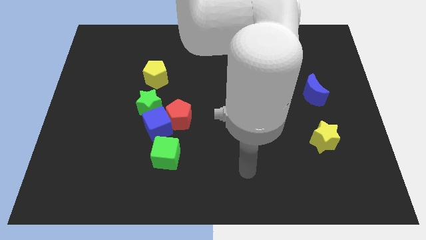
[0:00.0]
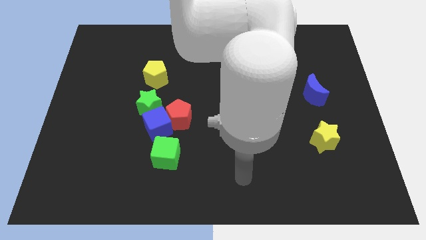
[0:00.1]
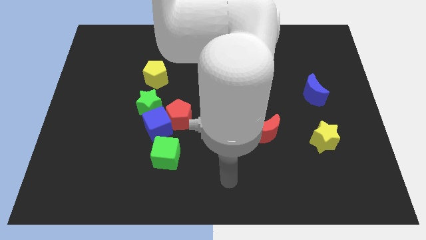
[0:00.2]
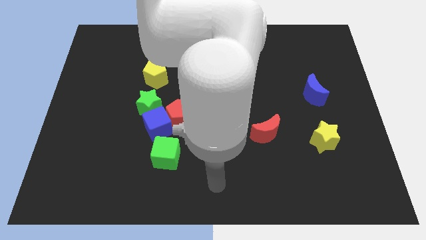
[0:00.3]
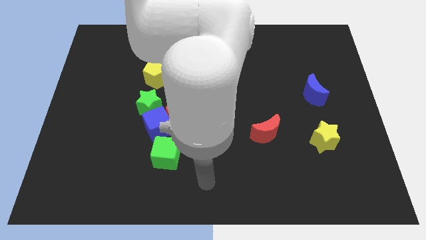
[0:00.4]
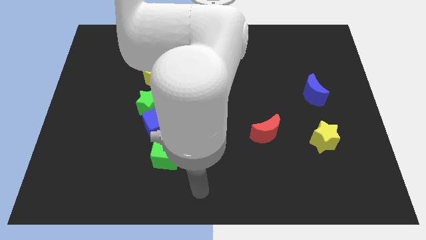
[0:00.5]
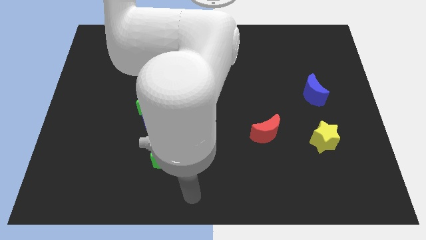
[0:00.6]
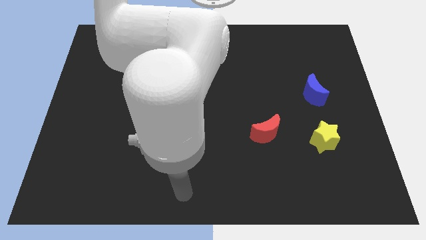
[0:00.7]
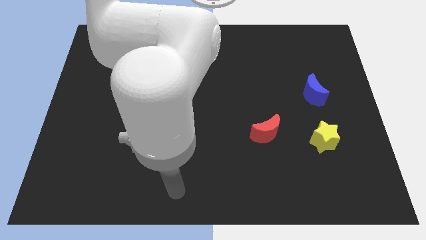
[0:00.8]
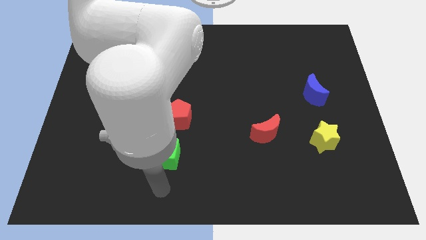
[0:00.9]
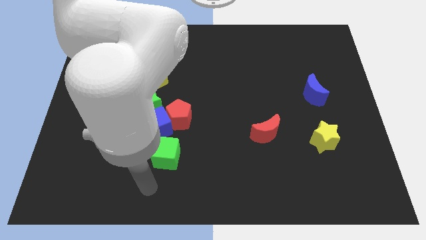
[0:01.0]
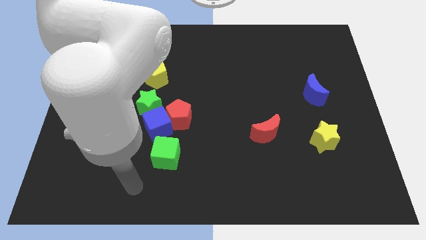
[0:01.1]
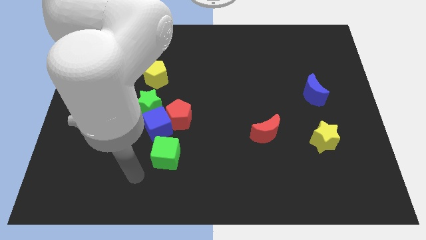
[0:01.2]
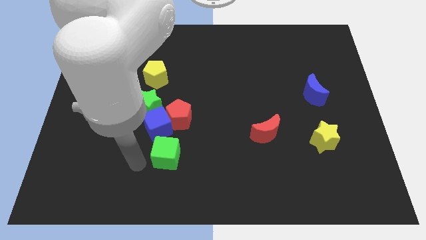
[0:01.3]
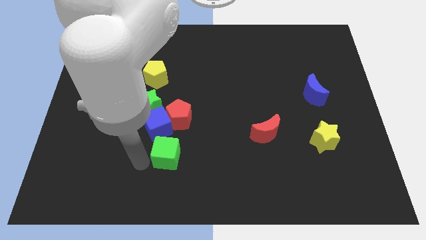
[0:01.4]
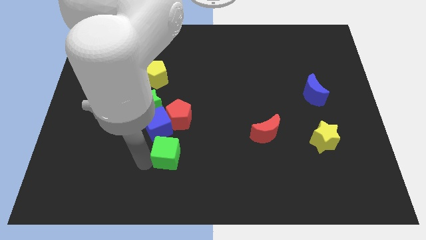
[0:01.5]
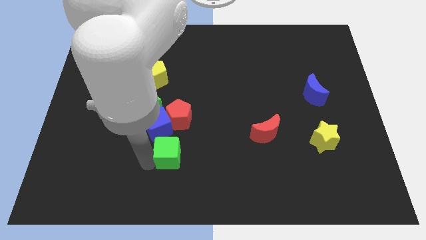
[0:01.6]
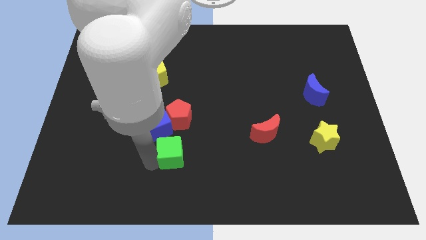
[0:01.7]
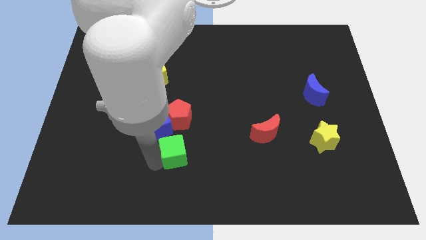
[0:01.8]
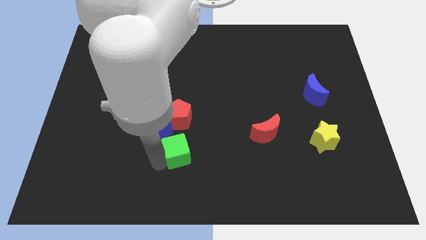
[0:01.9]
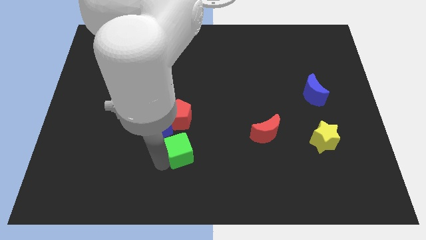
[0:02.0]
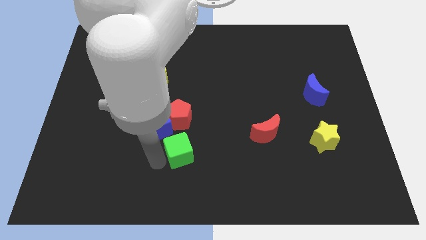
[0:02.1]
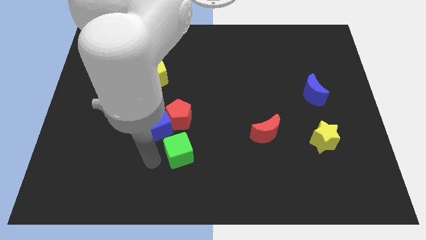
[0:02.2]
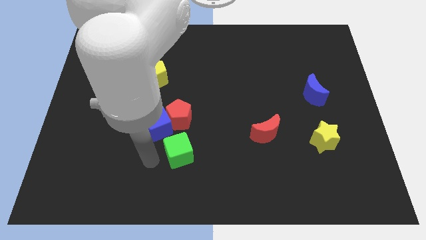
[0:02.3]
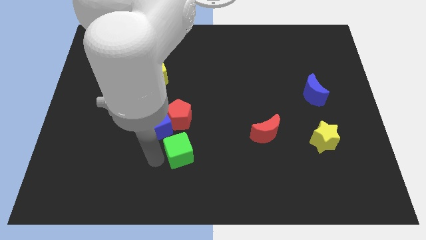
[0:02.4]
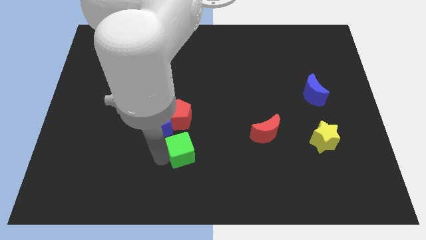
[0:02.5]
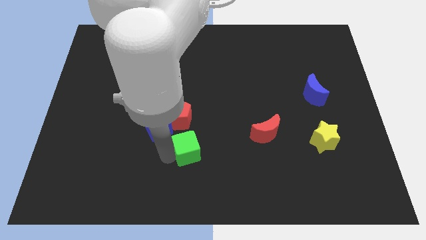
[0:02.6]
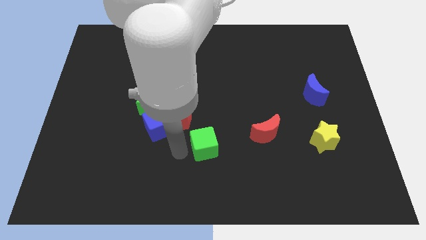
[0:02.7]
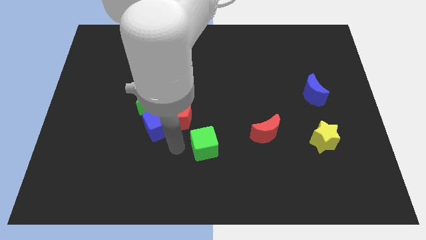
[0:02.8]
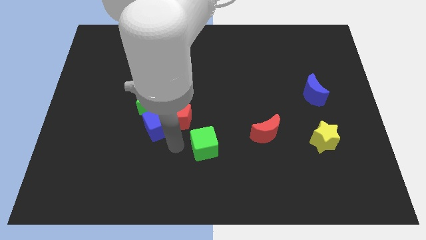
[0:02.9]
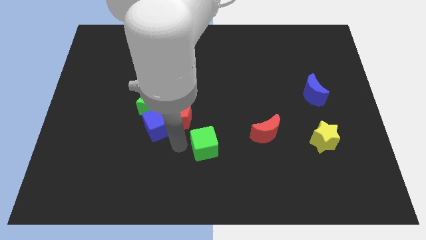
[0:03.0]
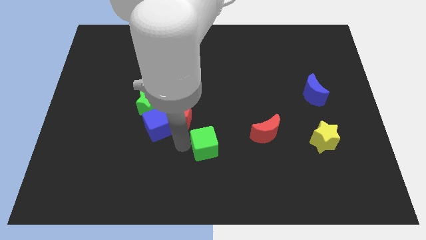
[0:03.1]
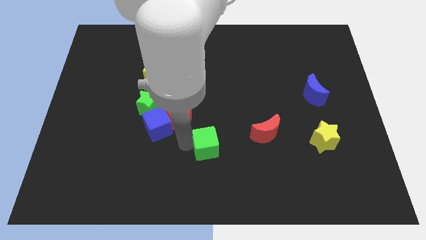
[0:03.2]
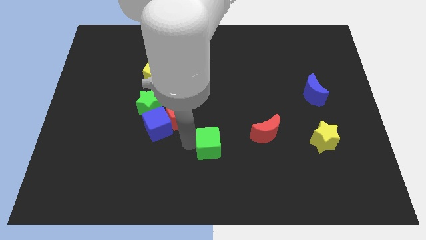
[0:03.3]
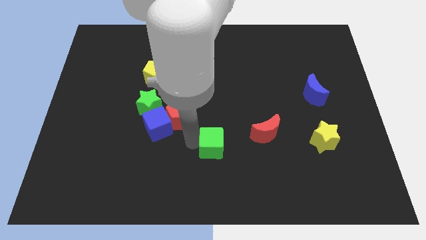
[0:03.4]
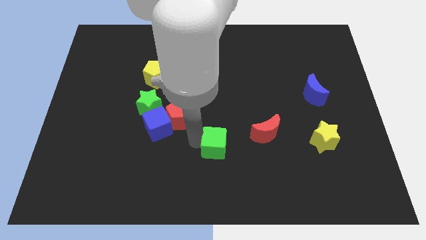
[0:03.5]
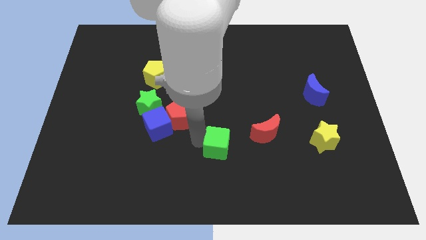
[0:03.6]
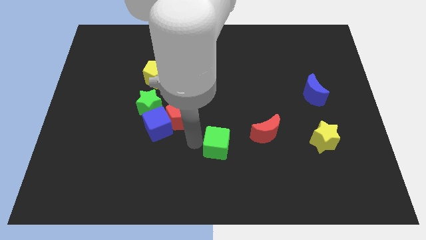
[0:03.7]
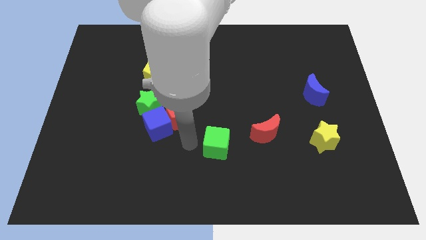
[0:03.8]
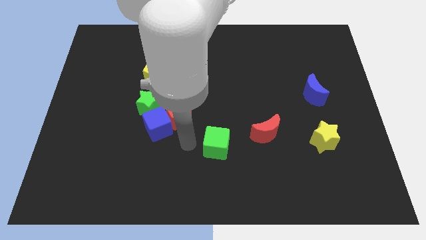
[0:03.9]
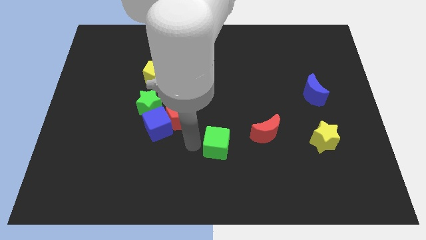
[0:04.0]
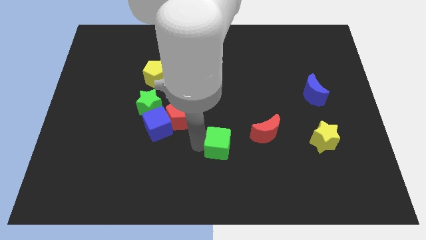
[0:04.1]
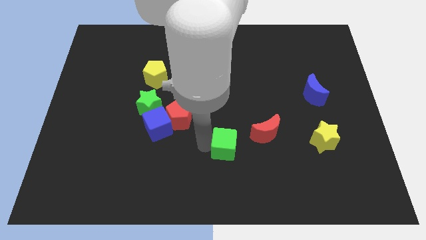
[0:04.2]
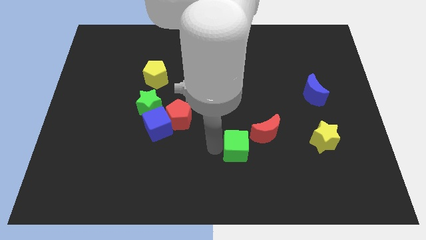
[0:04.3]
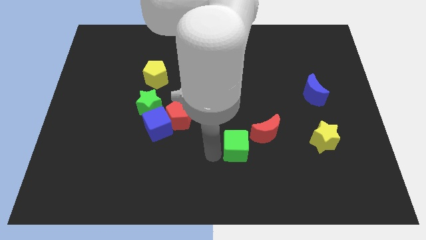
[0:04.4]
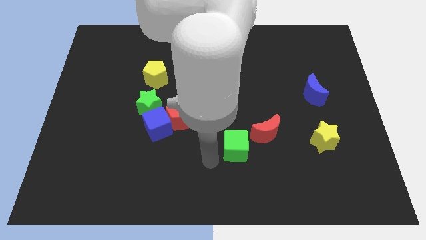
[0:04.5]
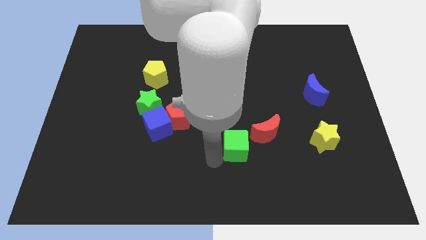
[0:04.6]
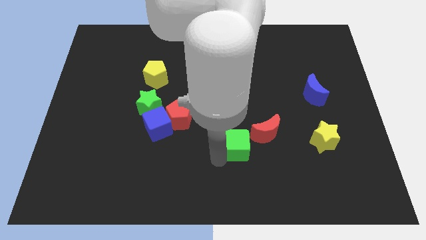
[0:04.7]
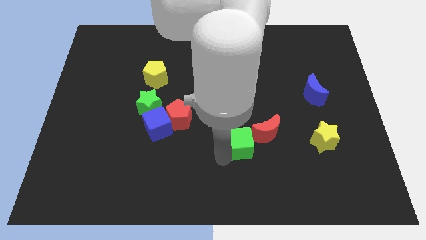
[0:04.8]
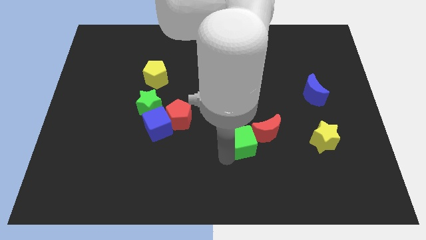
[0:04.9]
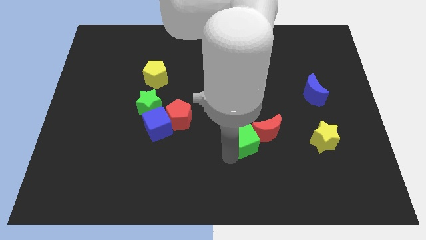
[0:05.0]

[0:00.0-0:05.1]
push the green cube next to the red moon

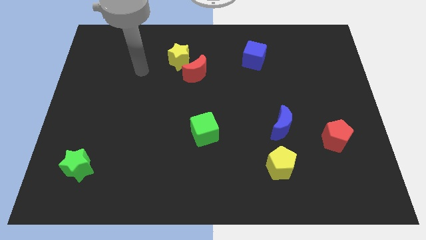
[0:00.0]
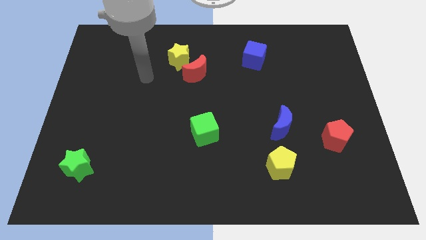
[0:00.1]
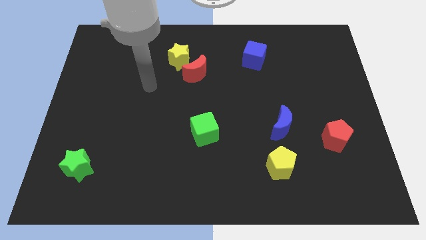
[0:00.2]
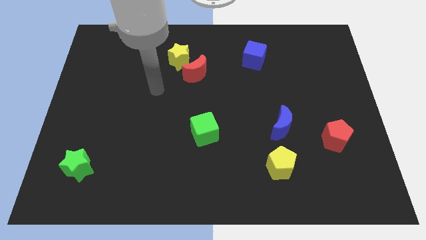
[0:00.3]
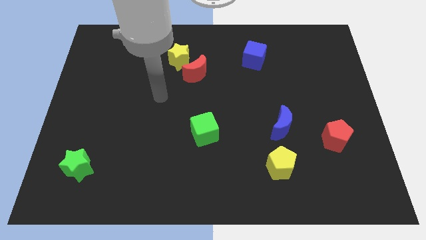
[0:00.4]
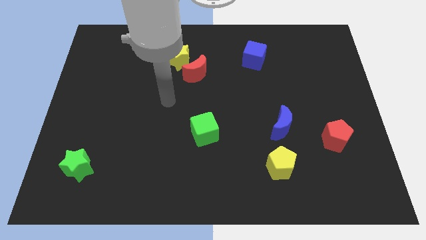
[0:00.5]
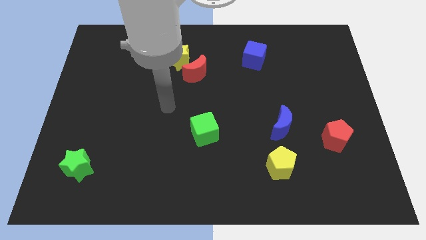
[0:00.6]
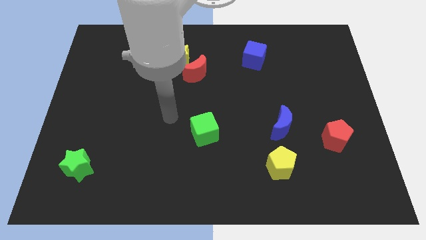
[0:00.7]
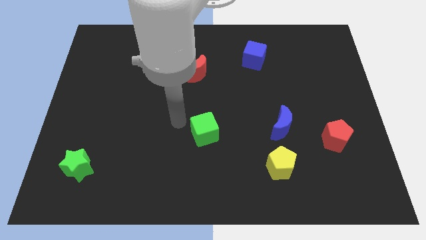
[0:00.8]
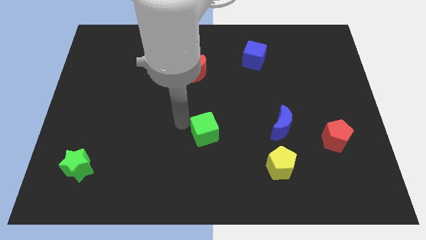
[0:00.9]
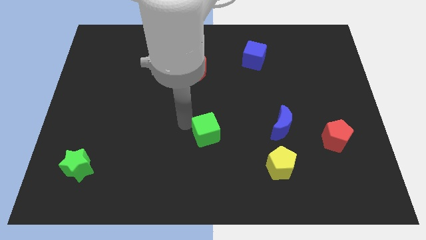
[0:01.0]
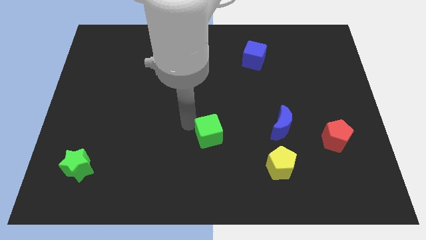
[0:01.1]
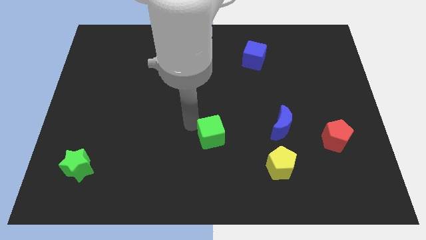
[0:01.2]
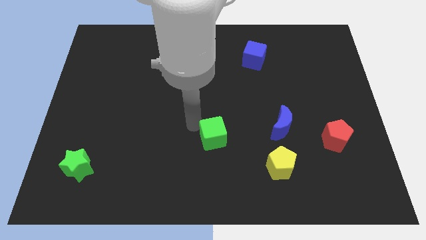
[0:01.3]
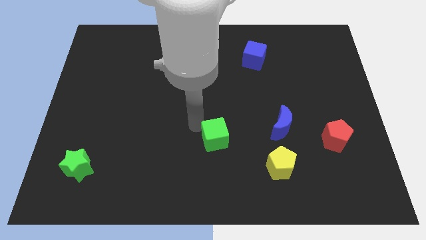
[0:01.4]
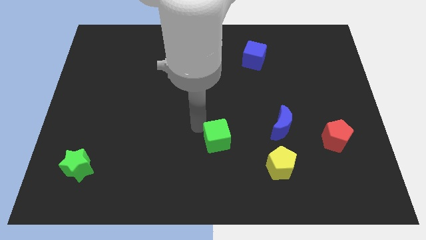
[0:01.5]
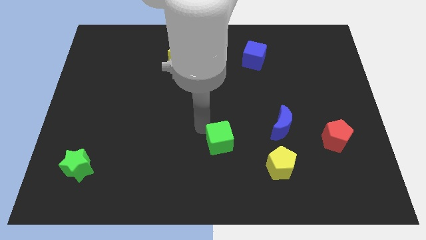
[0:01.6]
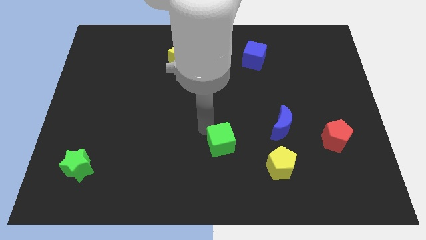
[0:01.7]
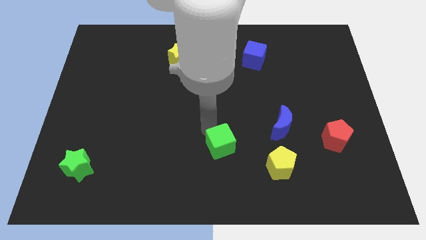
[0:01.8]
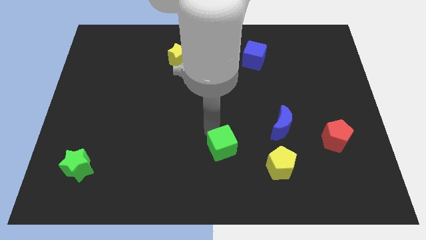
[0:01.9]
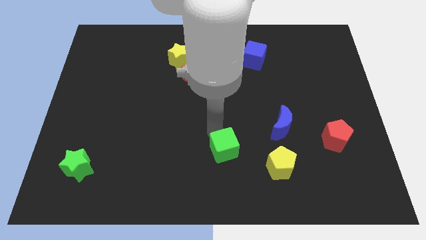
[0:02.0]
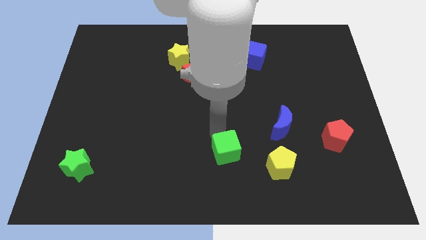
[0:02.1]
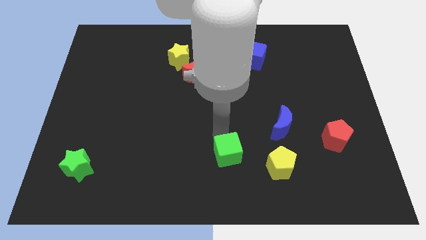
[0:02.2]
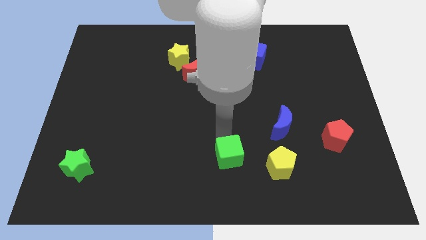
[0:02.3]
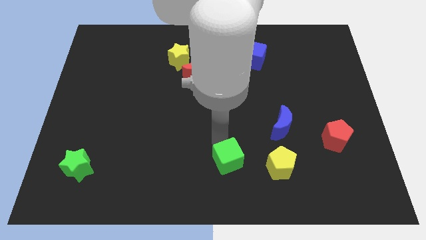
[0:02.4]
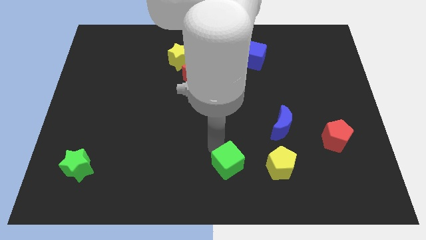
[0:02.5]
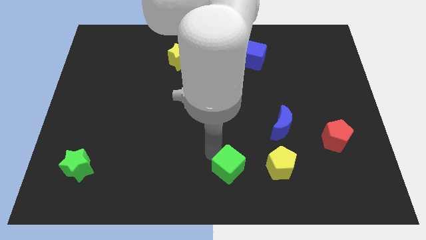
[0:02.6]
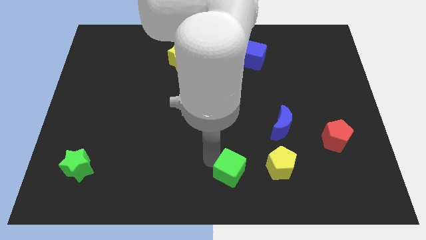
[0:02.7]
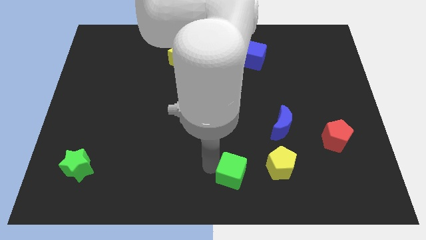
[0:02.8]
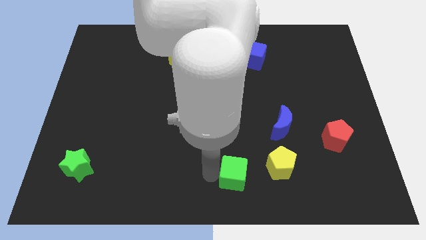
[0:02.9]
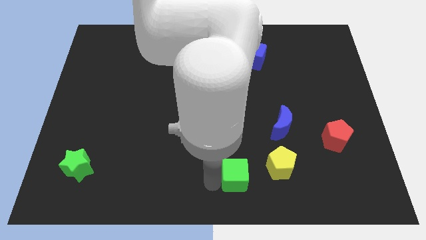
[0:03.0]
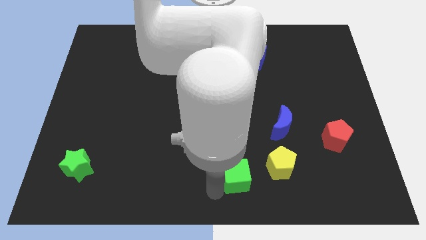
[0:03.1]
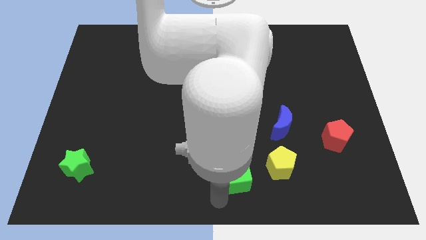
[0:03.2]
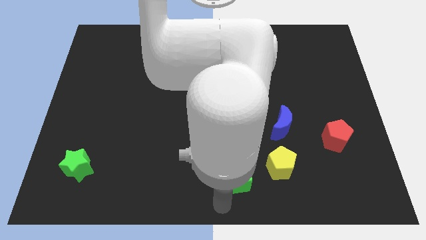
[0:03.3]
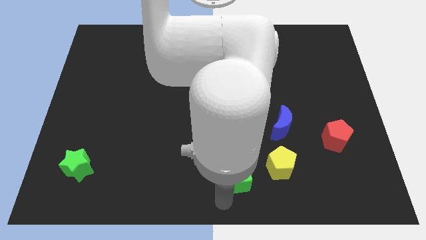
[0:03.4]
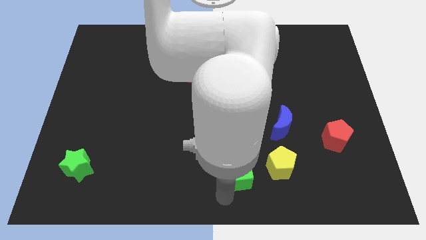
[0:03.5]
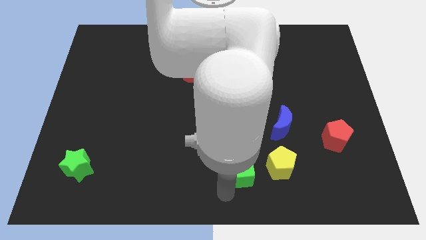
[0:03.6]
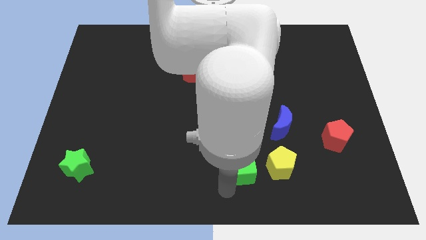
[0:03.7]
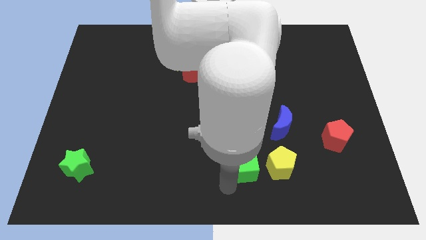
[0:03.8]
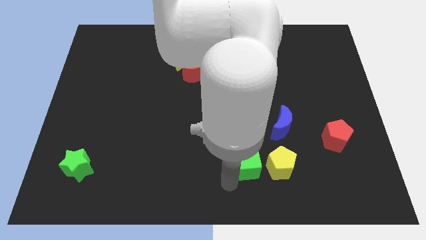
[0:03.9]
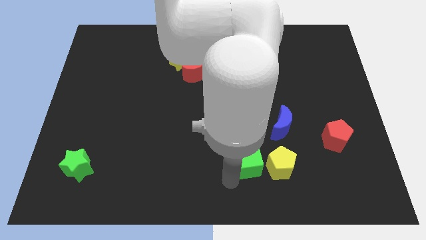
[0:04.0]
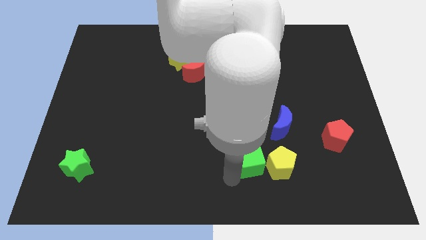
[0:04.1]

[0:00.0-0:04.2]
put the green cube to the yellow pentagon
